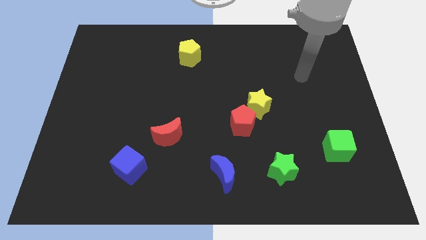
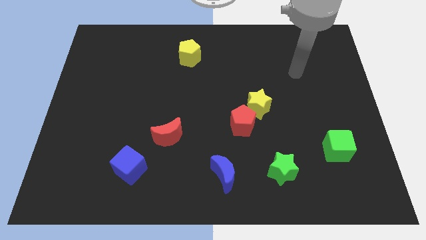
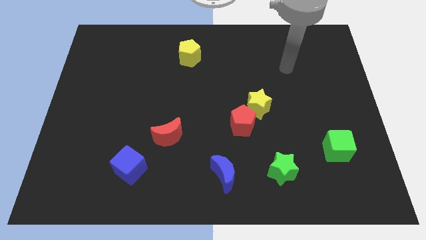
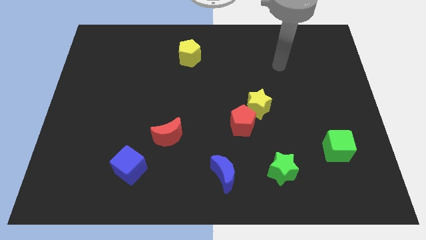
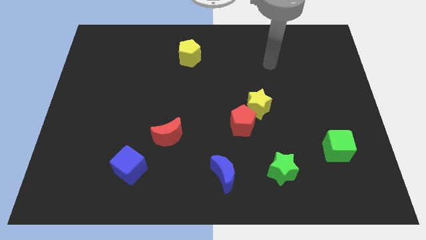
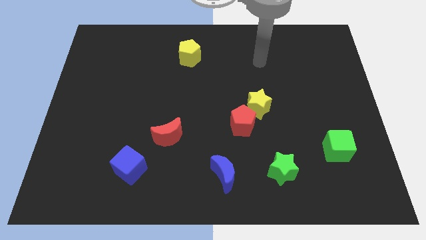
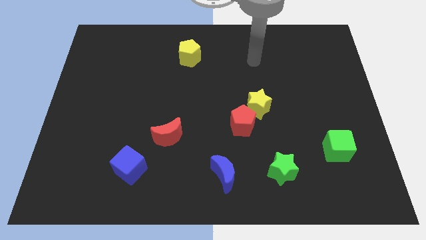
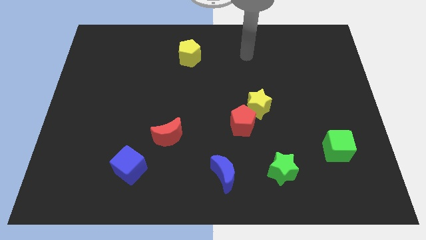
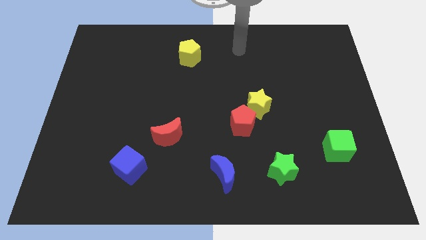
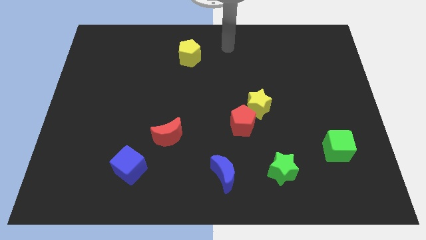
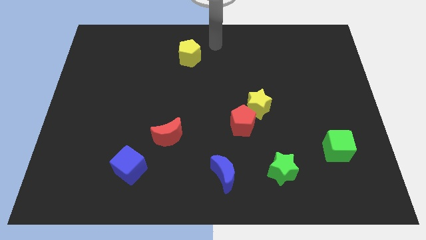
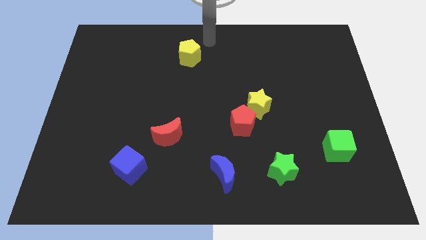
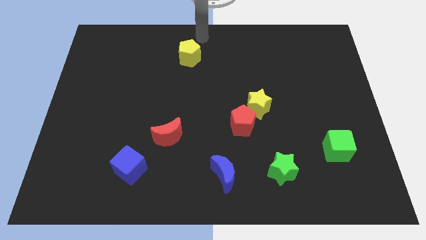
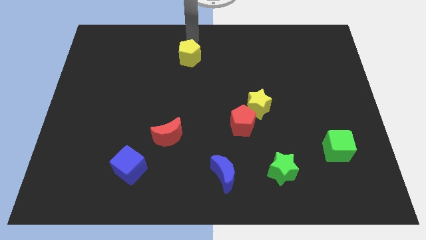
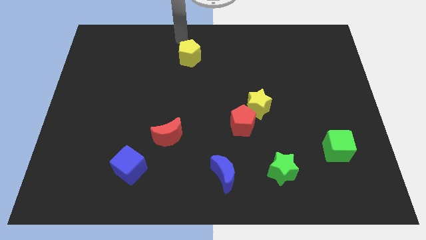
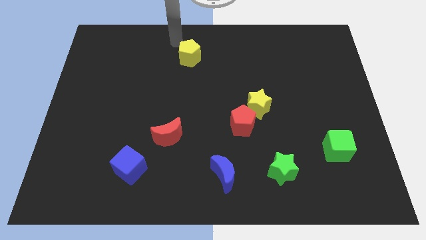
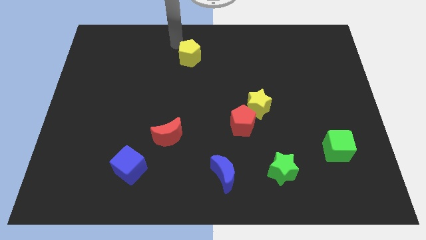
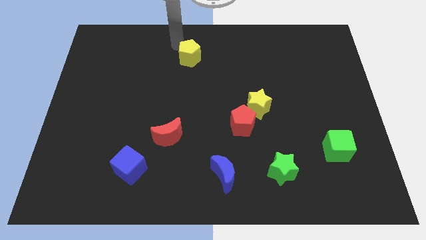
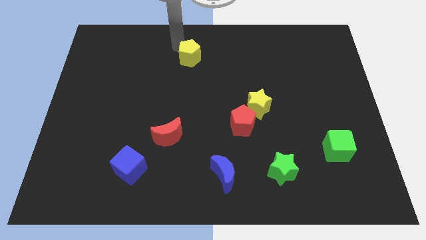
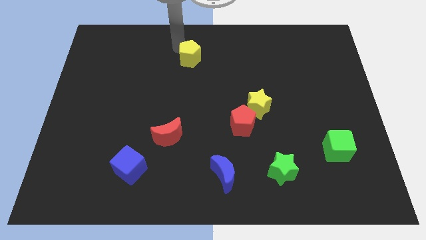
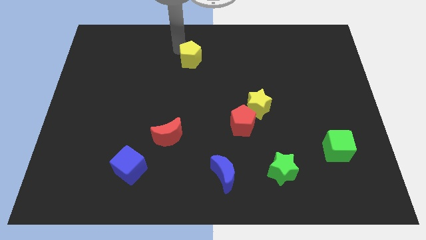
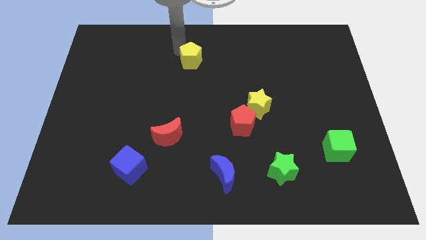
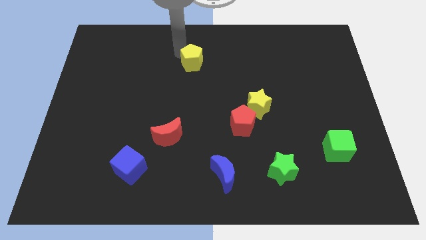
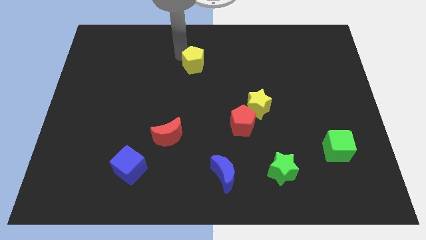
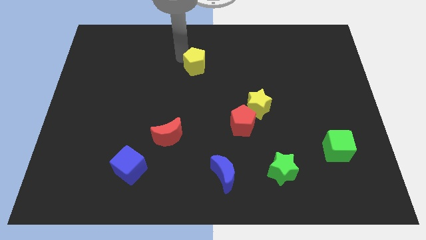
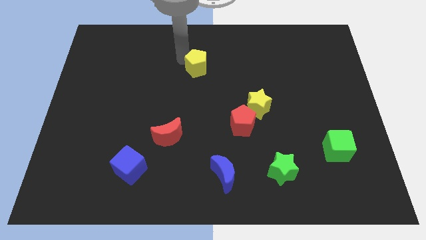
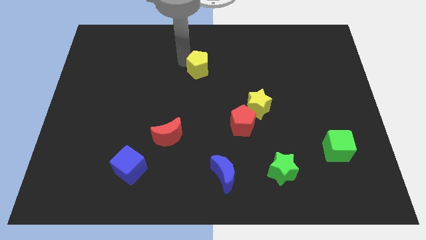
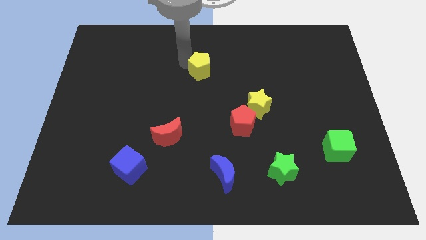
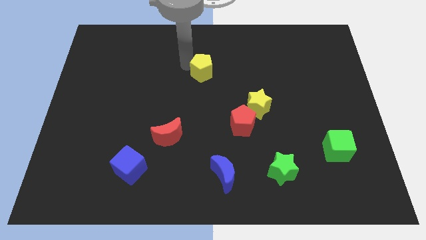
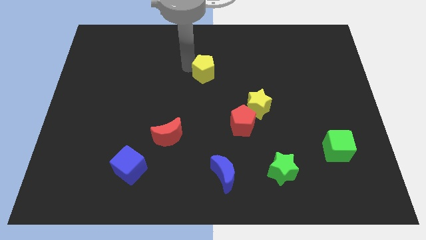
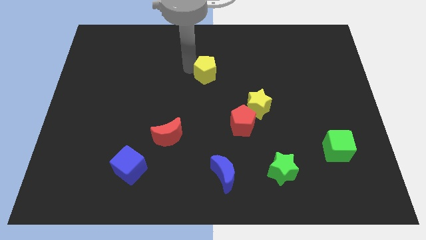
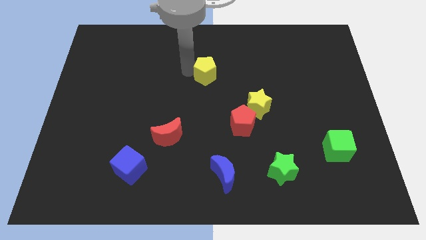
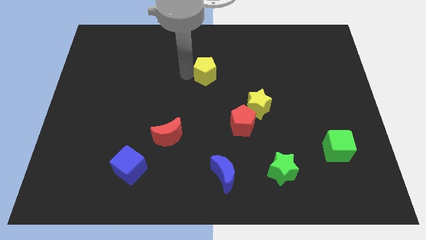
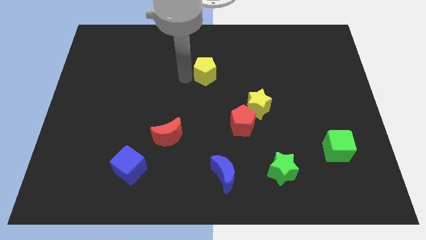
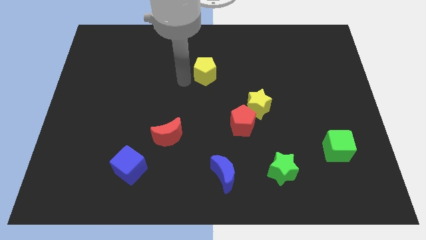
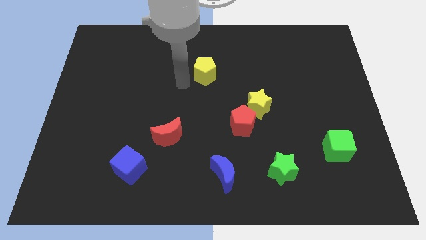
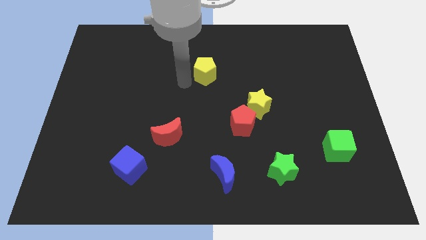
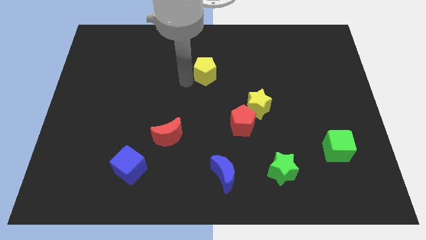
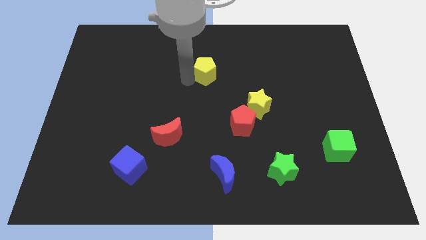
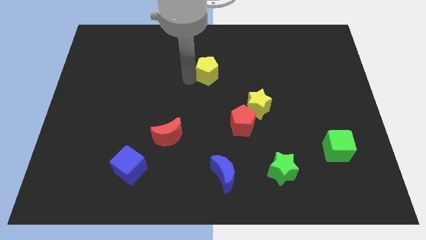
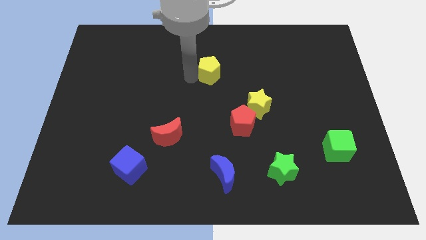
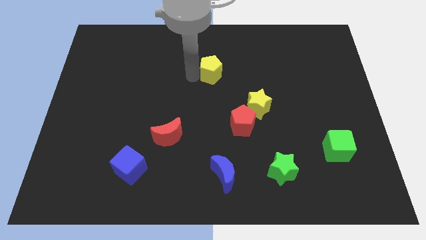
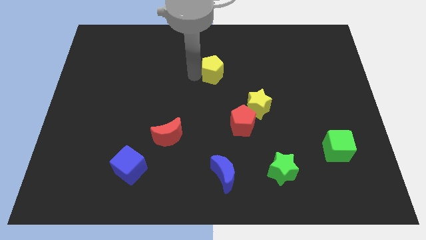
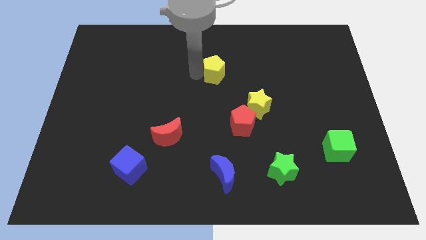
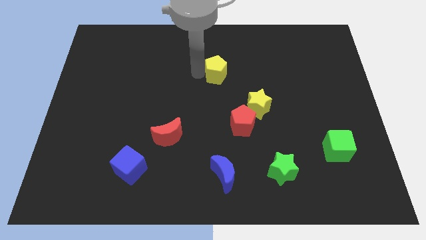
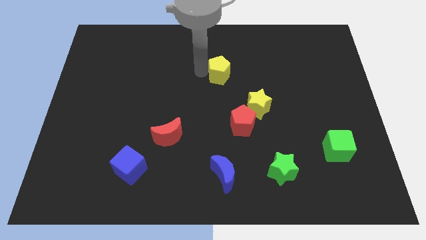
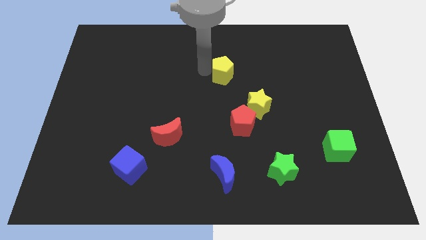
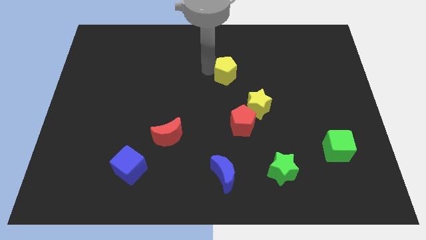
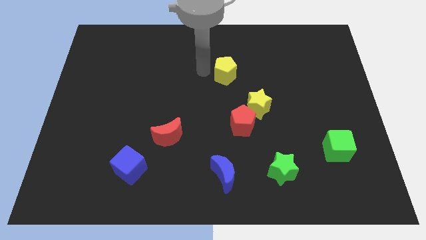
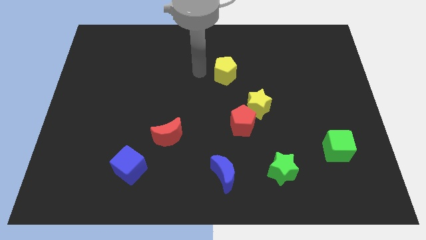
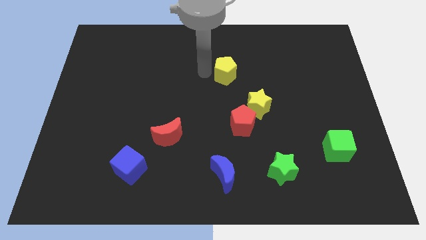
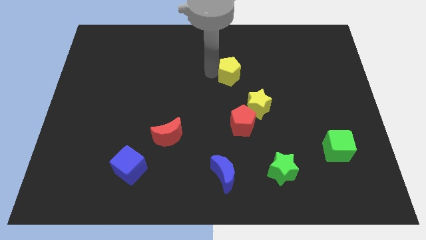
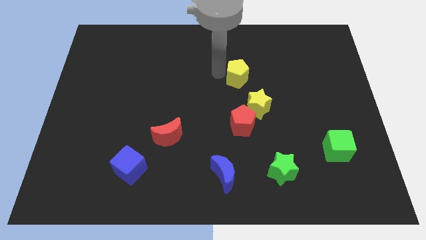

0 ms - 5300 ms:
slide the yellow pentagon to the top side of the yellow star

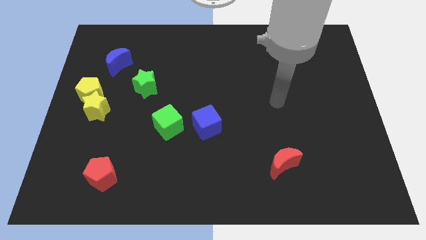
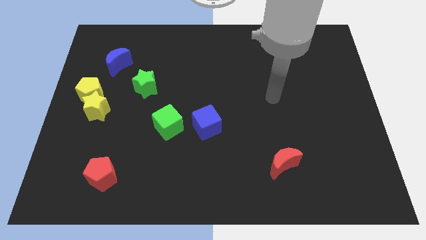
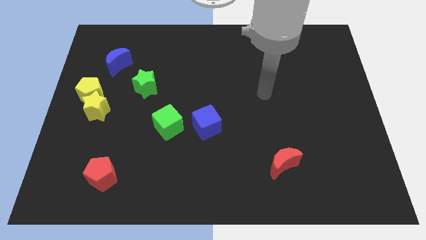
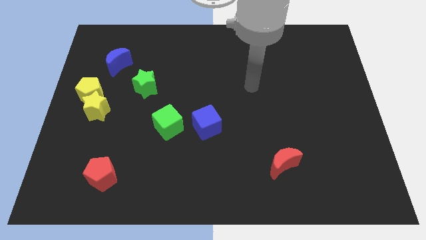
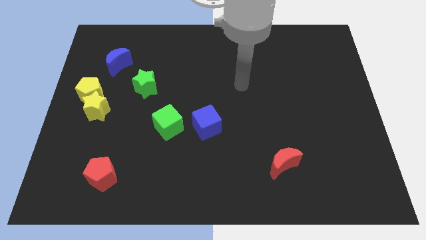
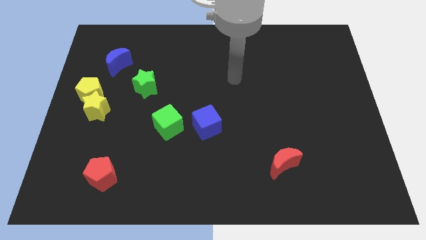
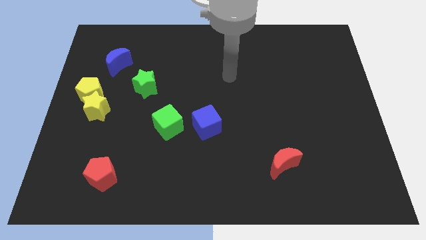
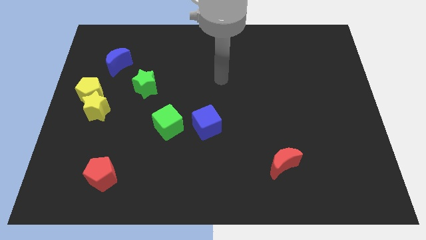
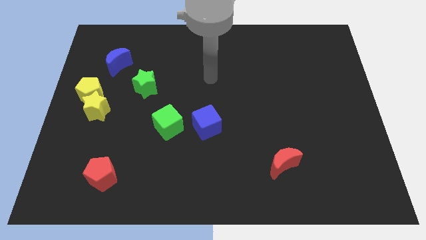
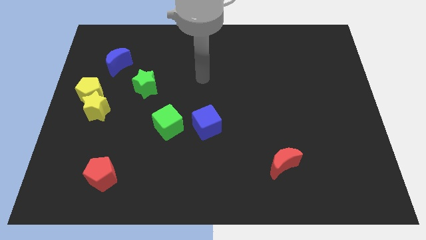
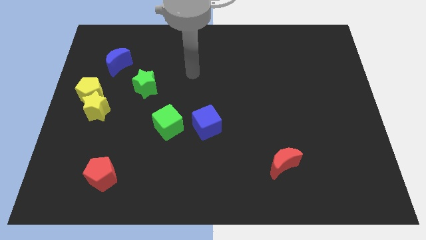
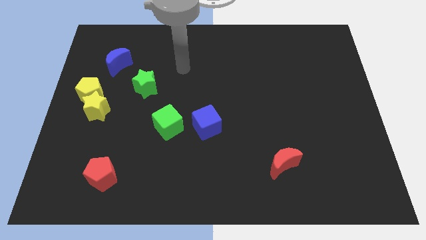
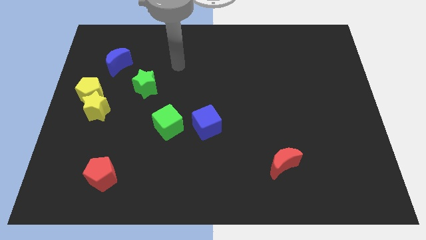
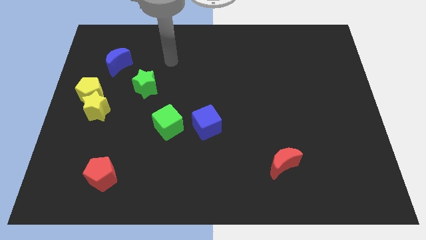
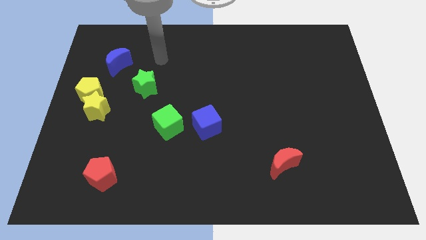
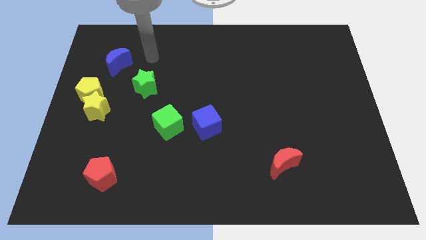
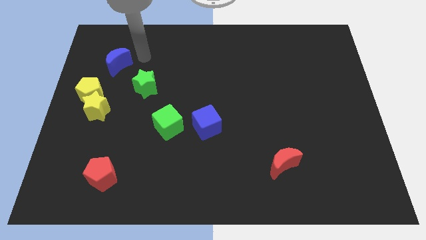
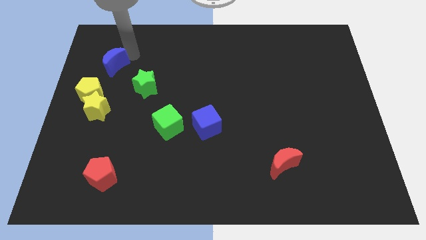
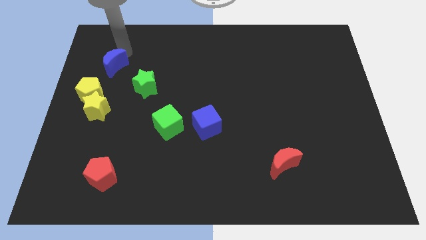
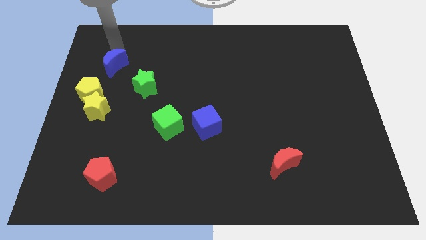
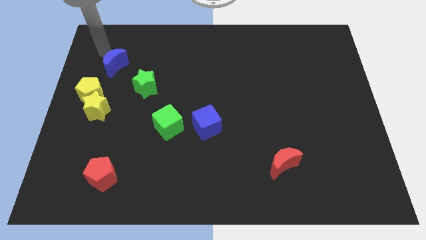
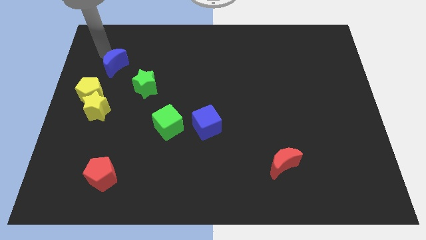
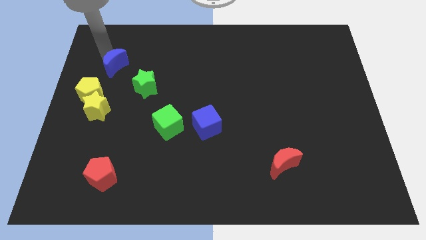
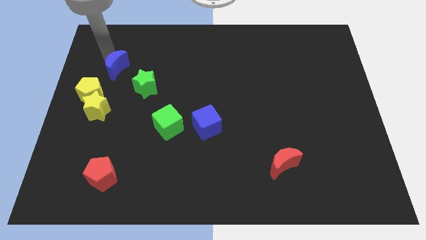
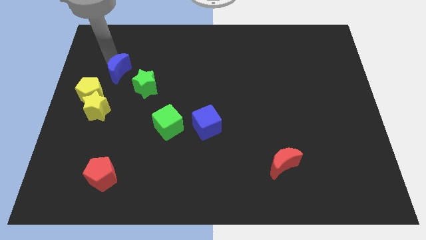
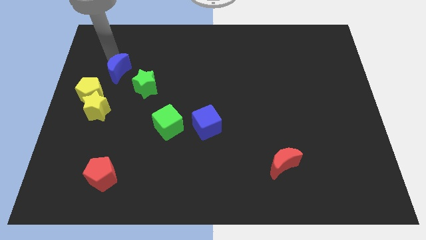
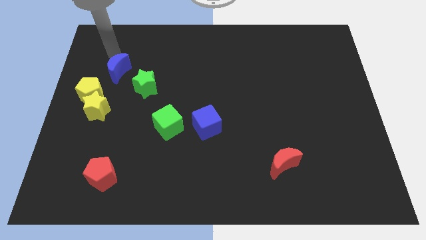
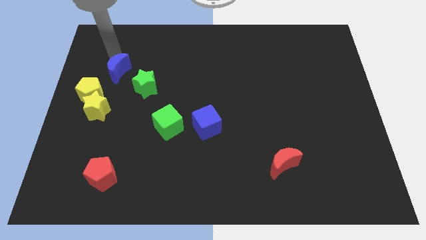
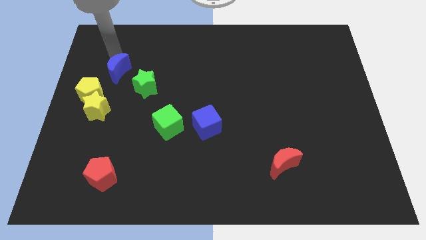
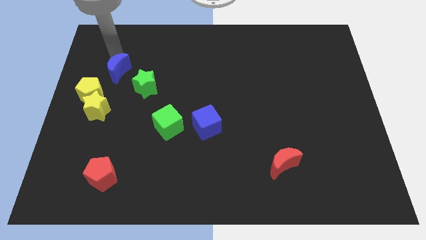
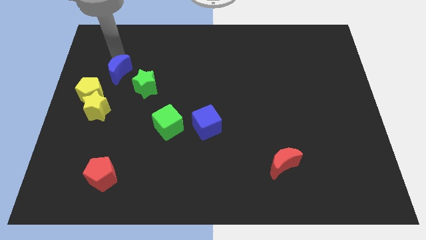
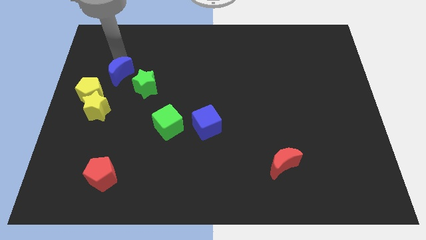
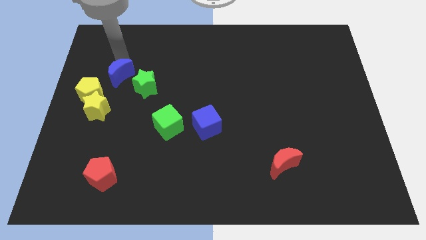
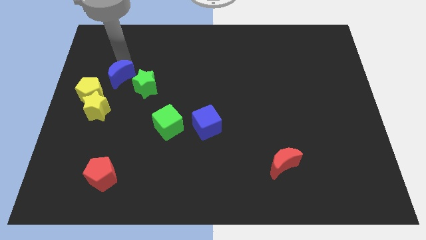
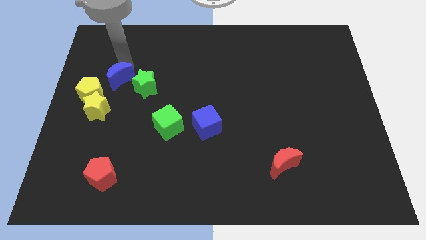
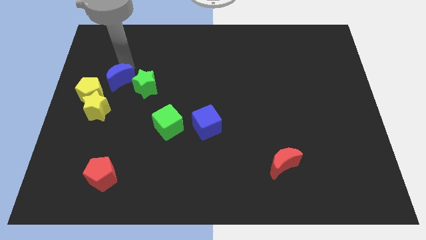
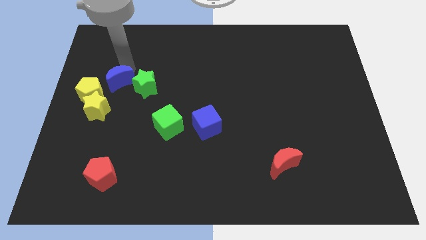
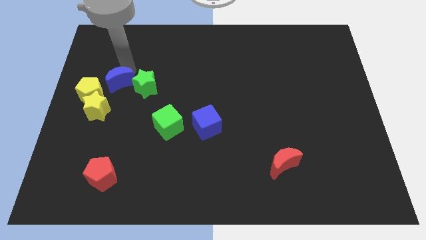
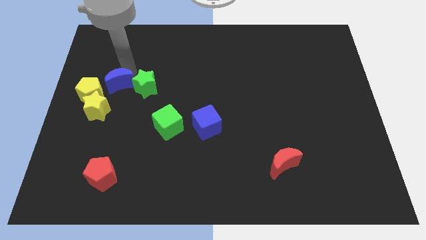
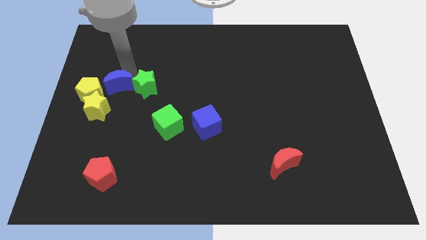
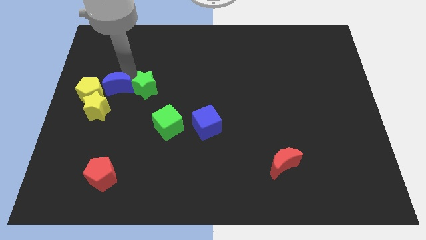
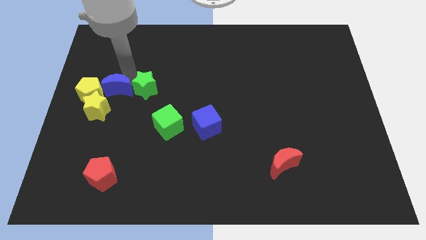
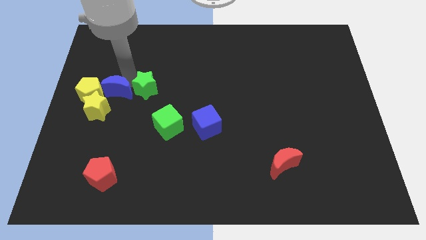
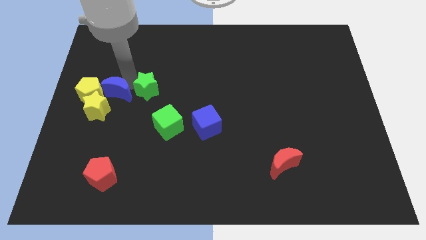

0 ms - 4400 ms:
push the blue moon diagonally down and to the right of the yellow pentagon
